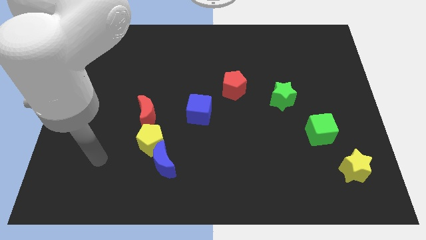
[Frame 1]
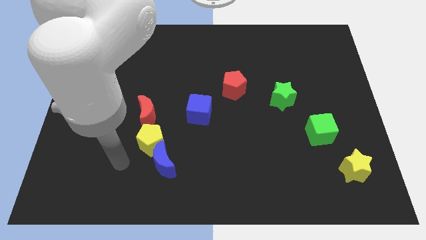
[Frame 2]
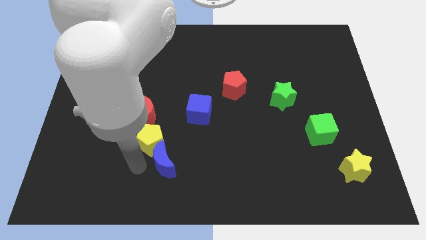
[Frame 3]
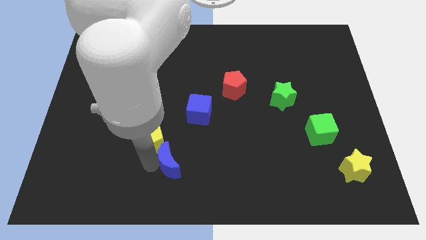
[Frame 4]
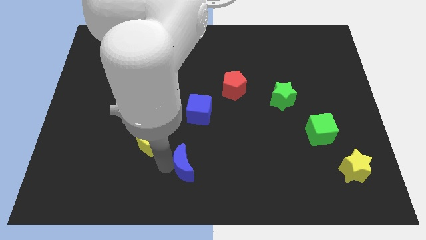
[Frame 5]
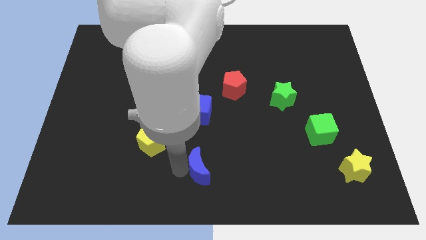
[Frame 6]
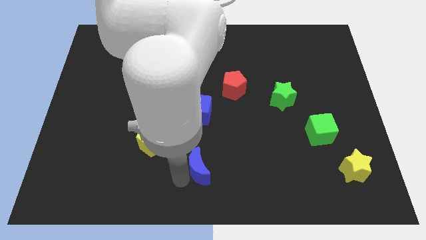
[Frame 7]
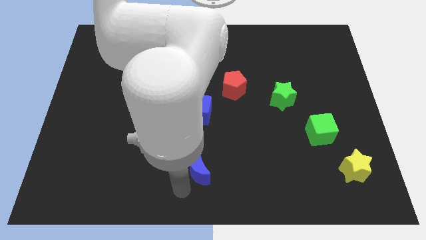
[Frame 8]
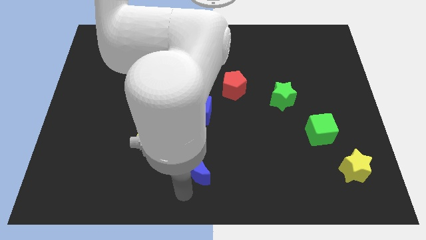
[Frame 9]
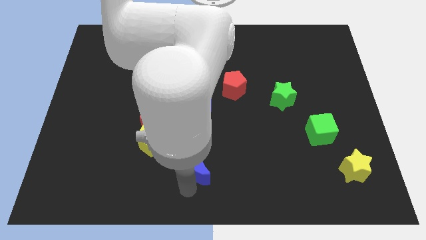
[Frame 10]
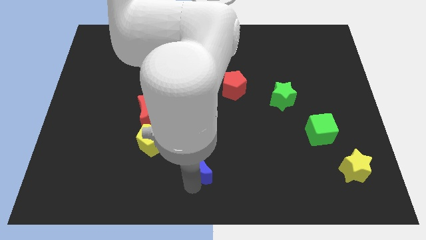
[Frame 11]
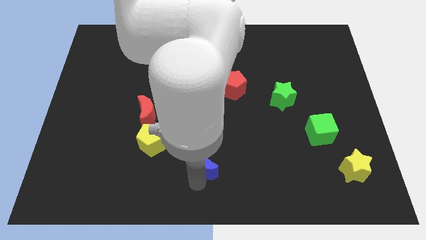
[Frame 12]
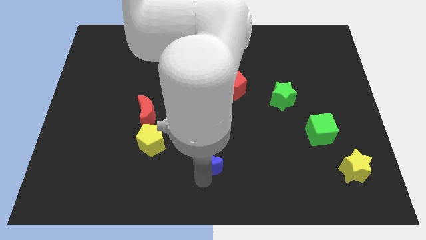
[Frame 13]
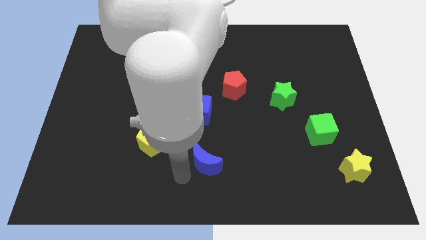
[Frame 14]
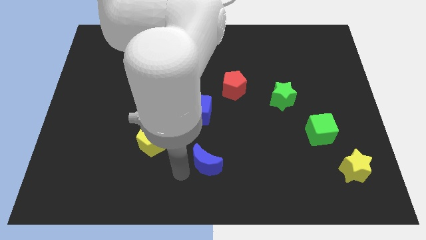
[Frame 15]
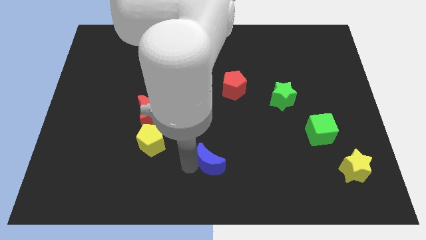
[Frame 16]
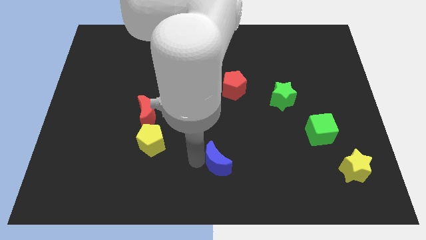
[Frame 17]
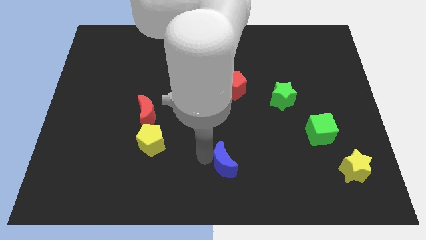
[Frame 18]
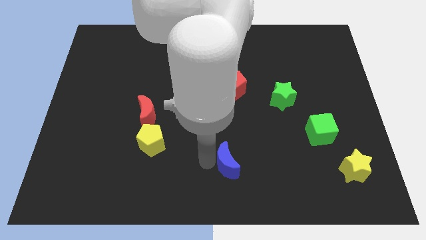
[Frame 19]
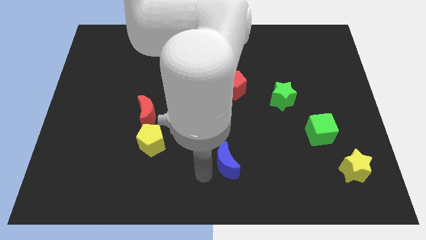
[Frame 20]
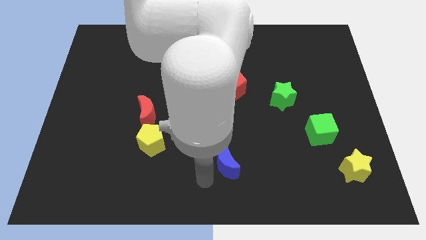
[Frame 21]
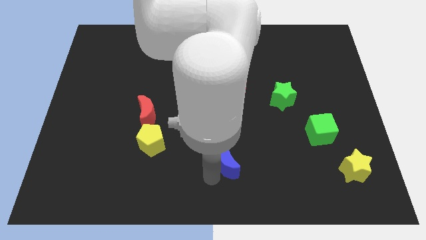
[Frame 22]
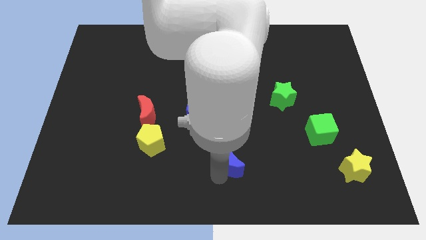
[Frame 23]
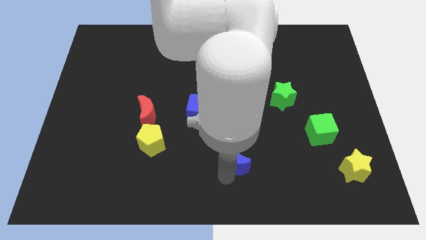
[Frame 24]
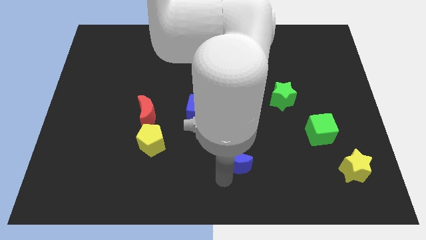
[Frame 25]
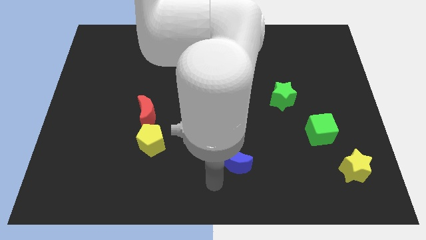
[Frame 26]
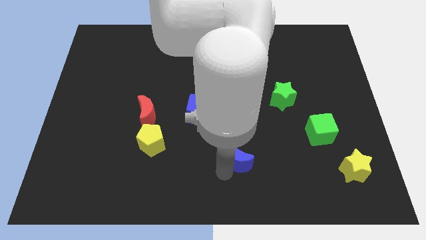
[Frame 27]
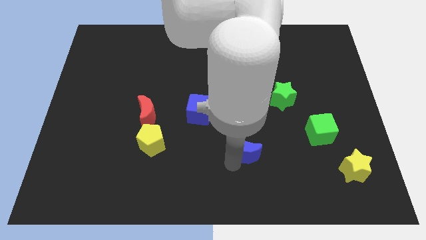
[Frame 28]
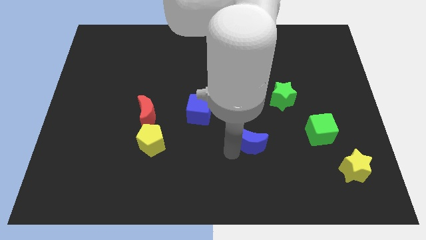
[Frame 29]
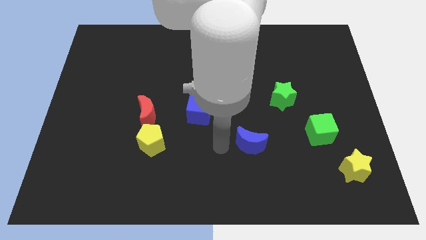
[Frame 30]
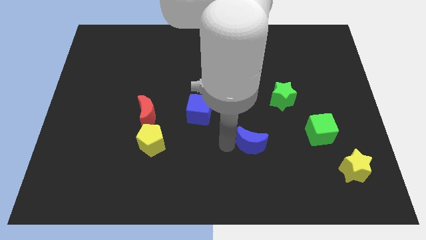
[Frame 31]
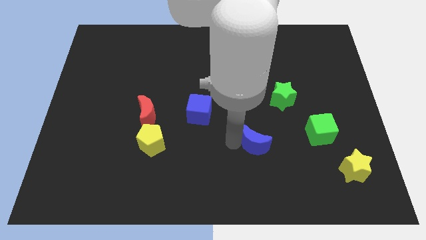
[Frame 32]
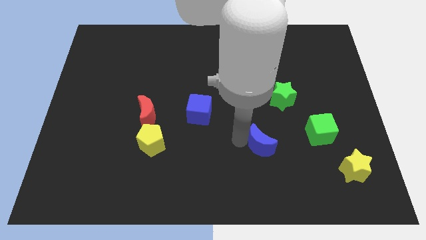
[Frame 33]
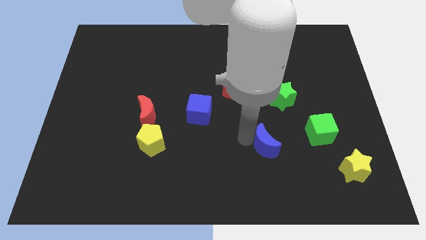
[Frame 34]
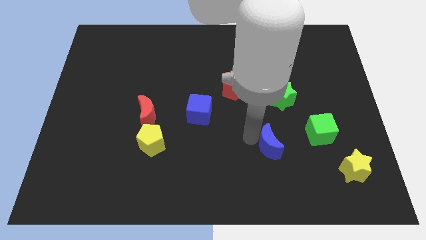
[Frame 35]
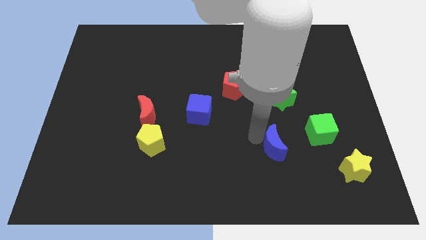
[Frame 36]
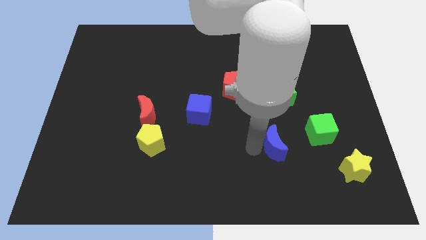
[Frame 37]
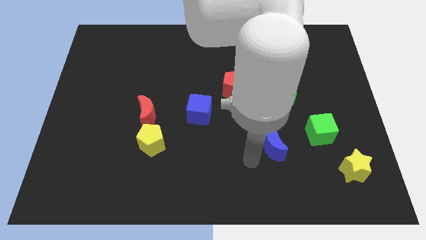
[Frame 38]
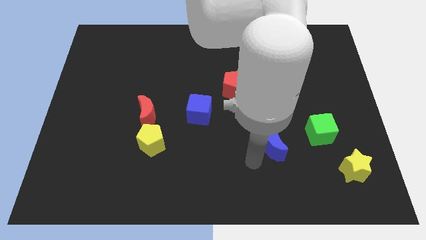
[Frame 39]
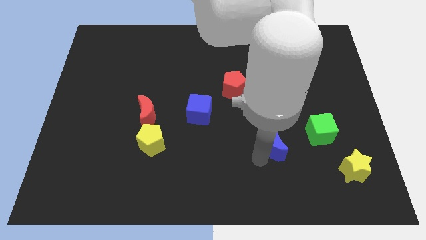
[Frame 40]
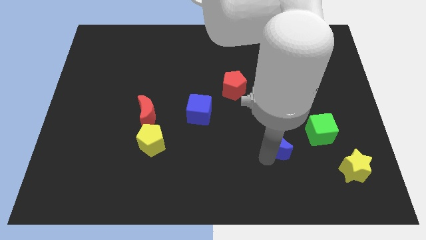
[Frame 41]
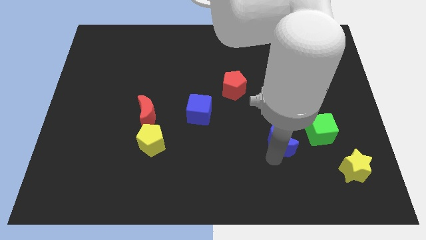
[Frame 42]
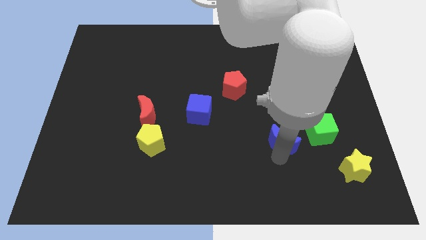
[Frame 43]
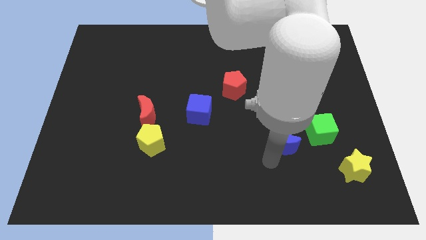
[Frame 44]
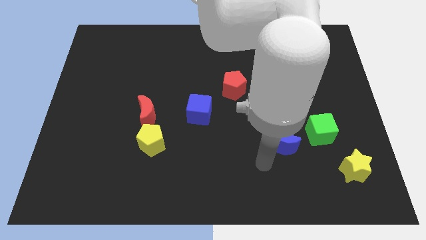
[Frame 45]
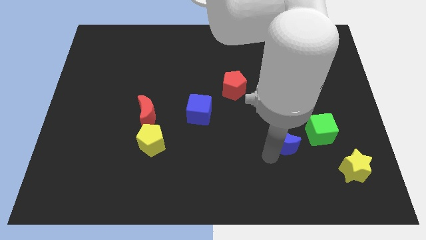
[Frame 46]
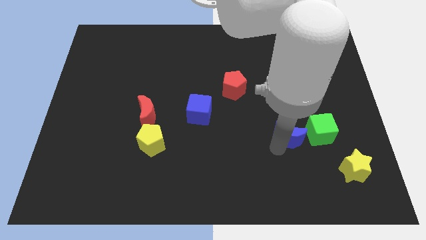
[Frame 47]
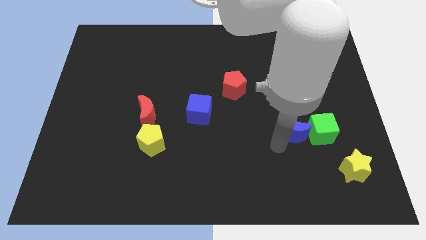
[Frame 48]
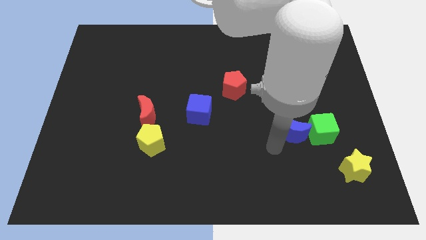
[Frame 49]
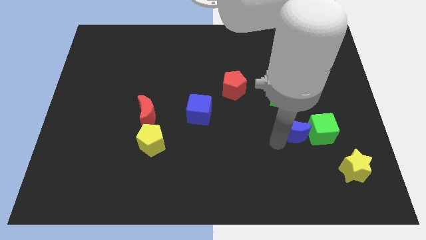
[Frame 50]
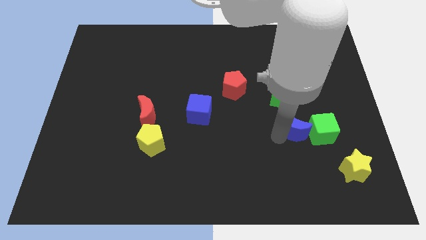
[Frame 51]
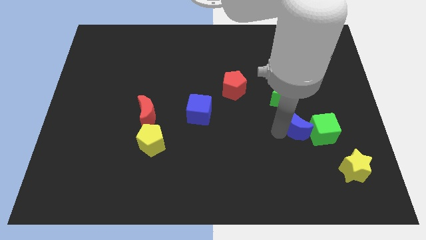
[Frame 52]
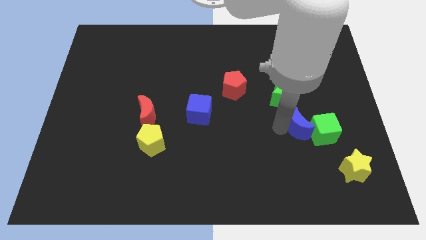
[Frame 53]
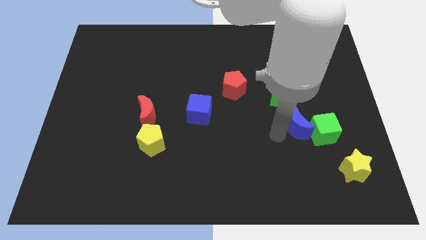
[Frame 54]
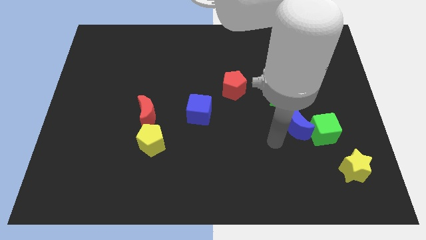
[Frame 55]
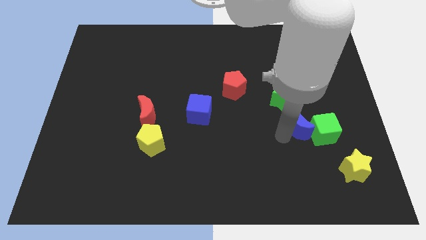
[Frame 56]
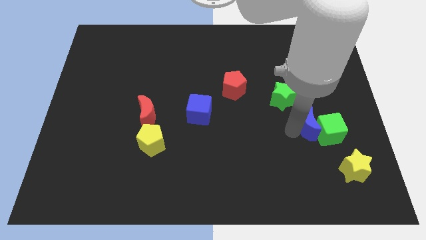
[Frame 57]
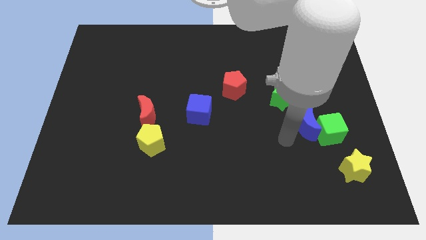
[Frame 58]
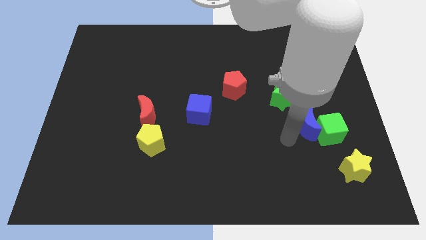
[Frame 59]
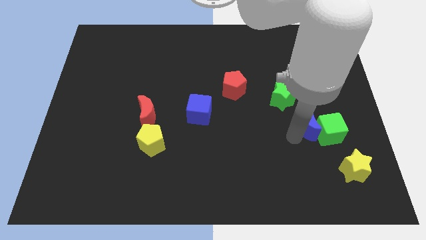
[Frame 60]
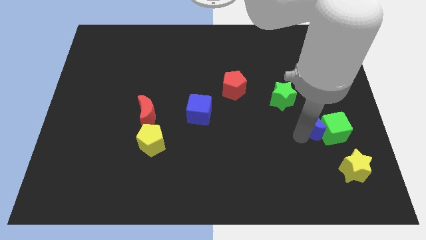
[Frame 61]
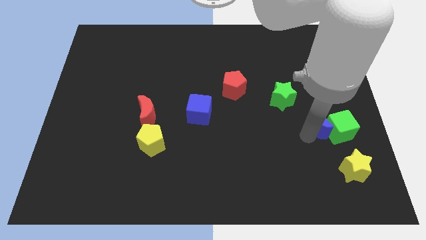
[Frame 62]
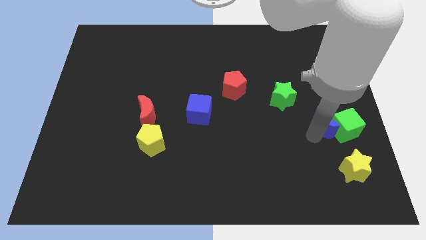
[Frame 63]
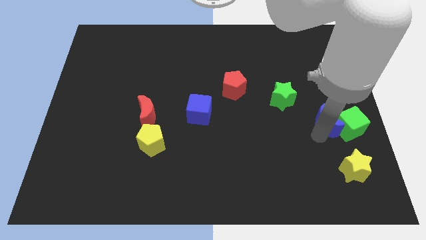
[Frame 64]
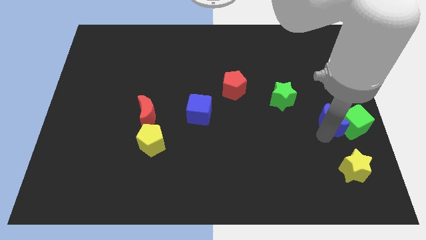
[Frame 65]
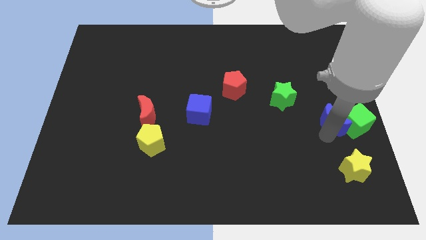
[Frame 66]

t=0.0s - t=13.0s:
push the blue moon to the center right
